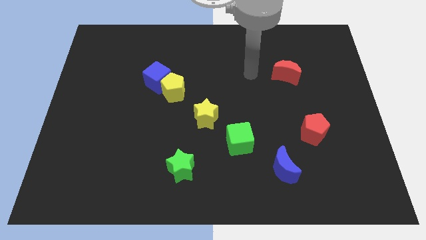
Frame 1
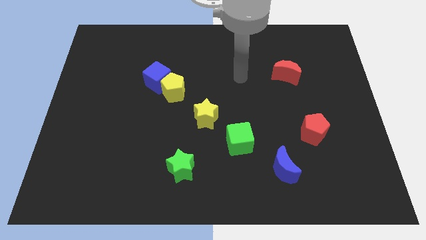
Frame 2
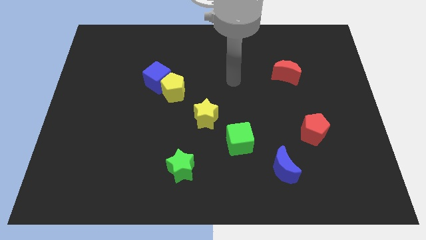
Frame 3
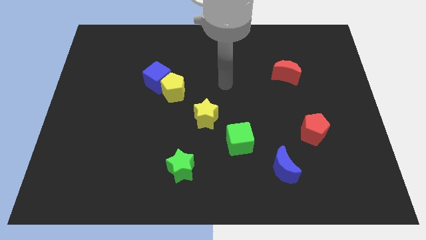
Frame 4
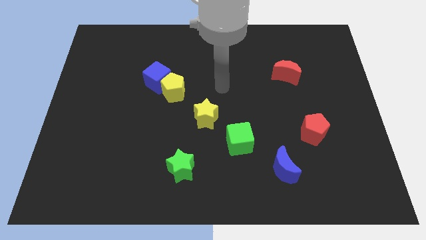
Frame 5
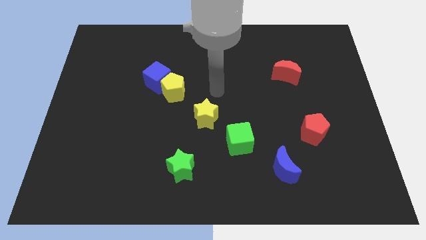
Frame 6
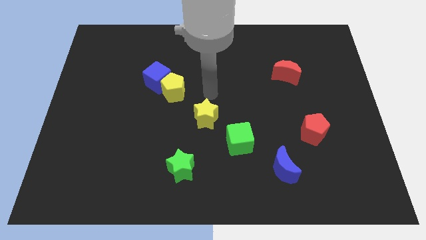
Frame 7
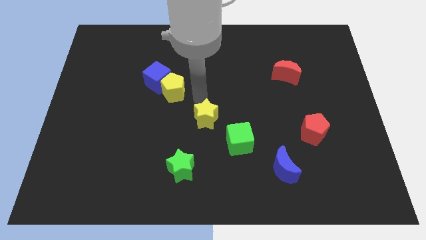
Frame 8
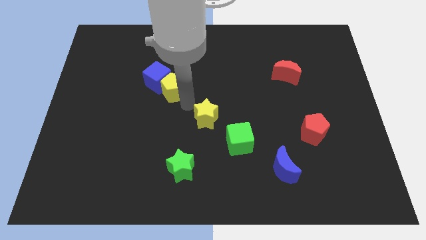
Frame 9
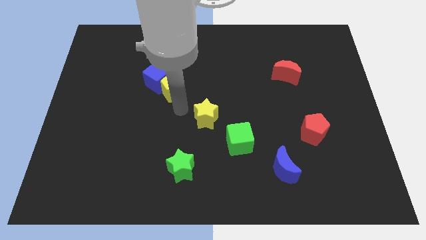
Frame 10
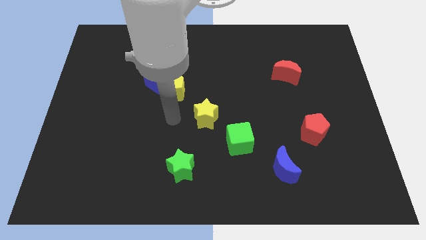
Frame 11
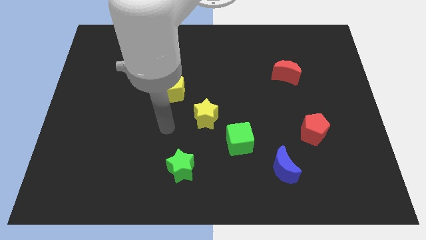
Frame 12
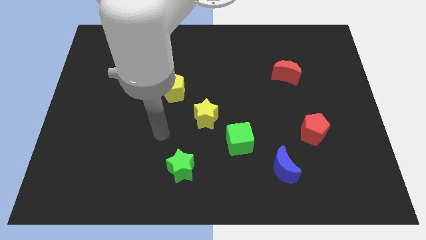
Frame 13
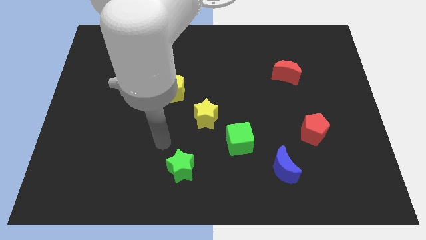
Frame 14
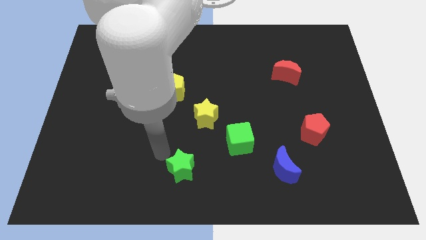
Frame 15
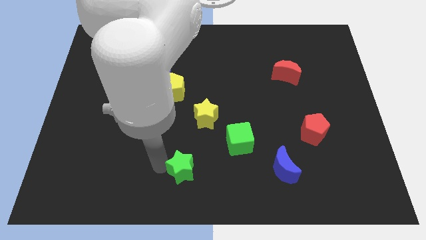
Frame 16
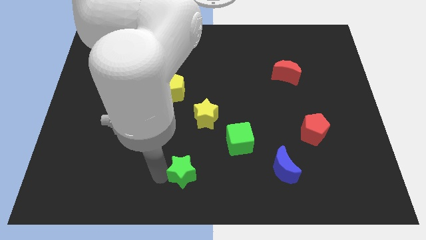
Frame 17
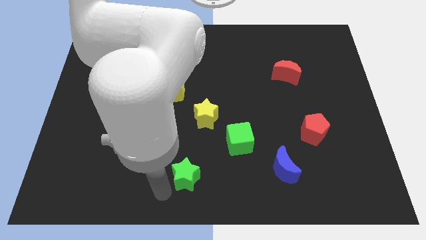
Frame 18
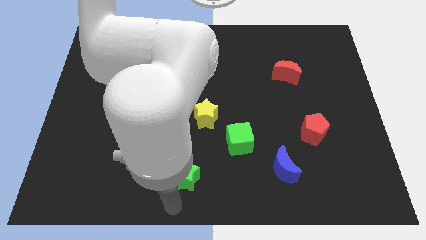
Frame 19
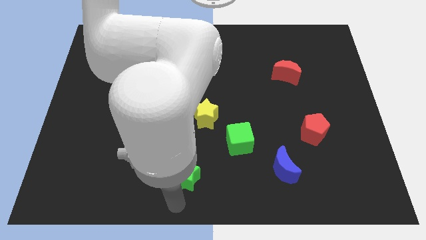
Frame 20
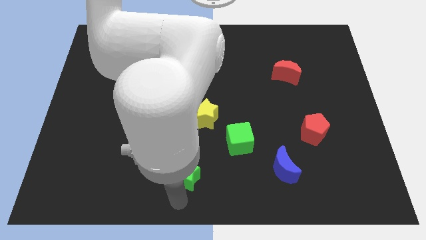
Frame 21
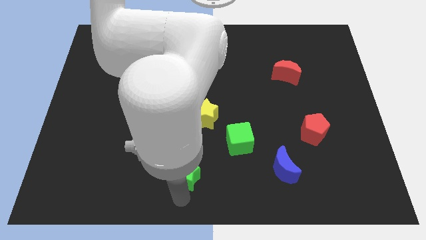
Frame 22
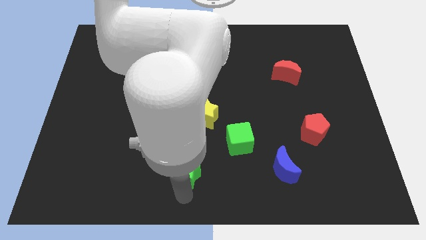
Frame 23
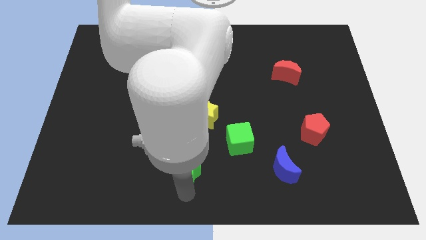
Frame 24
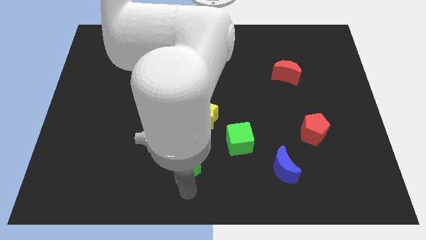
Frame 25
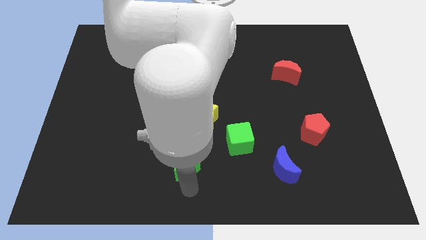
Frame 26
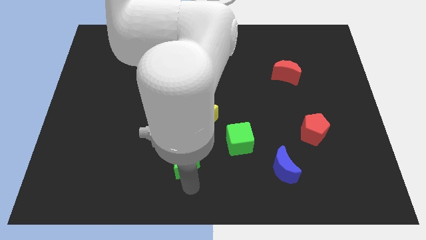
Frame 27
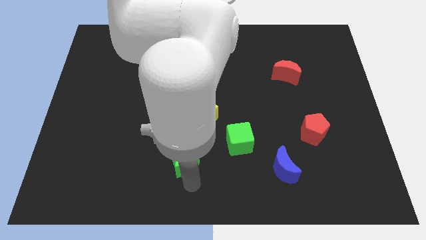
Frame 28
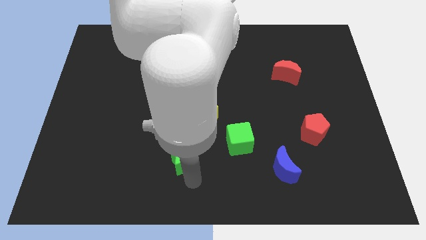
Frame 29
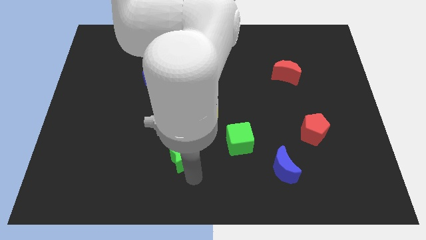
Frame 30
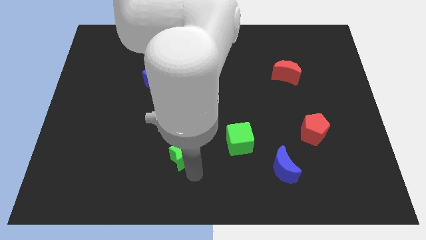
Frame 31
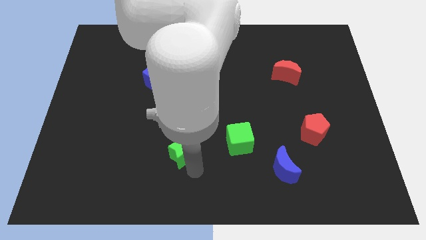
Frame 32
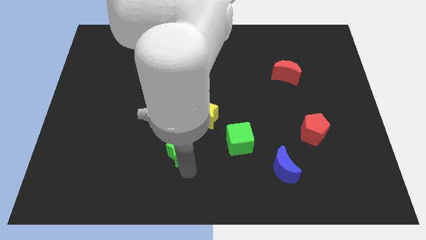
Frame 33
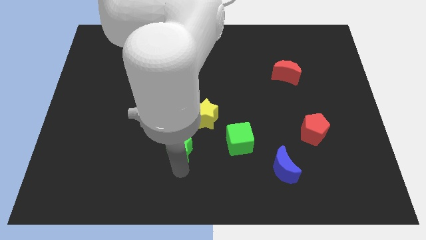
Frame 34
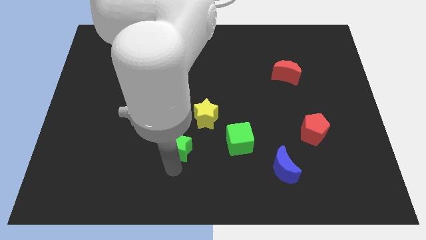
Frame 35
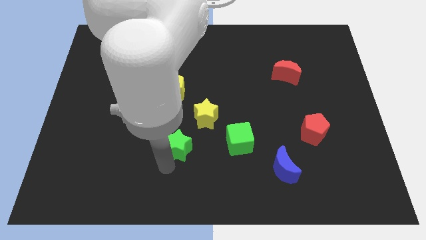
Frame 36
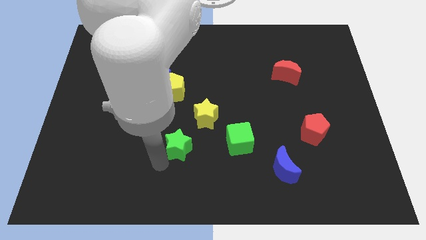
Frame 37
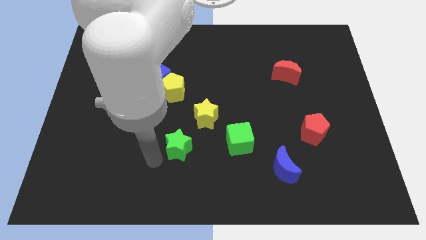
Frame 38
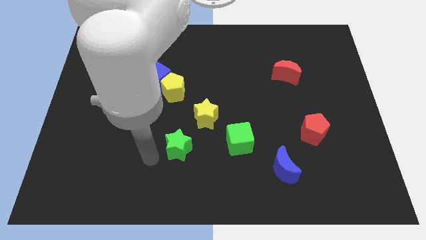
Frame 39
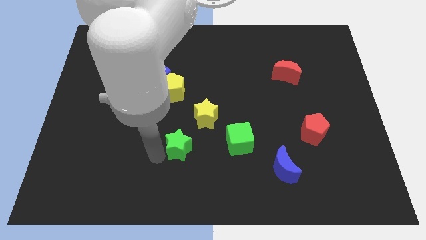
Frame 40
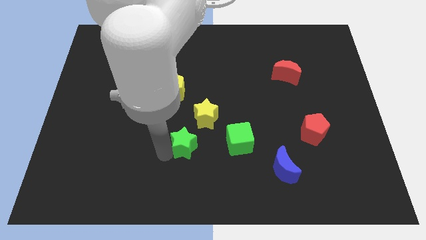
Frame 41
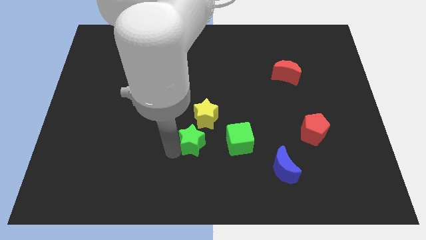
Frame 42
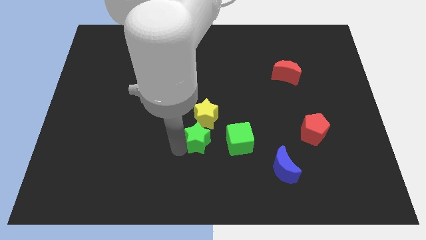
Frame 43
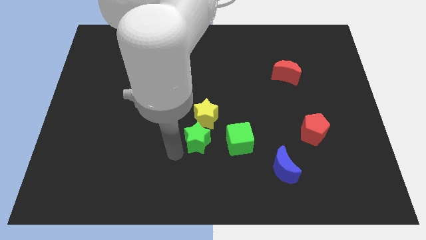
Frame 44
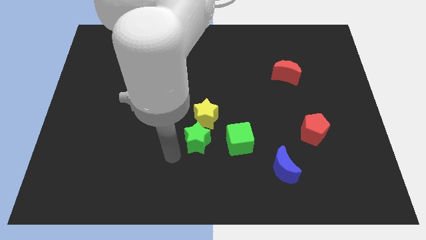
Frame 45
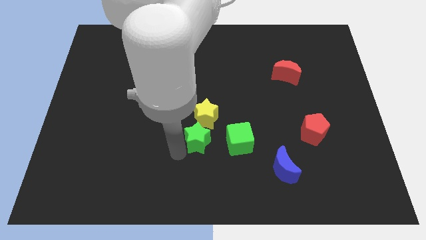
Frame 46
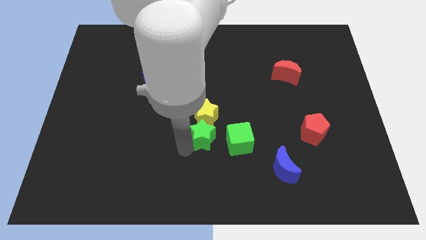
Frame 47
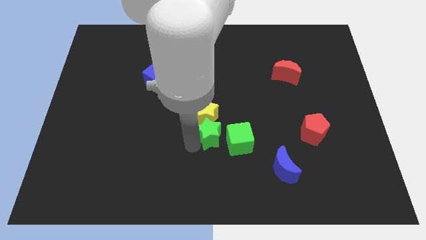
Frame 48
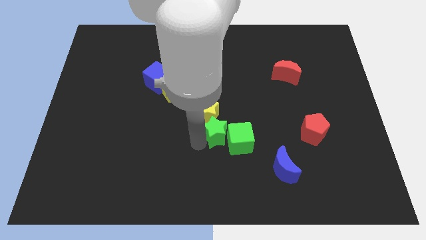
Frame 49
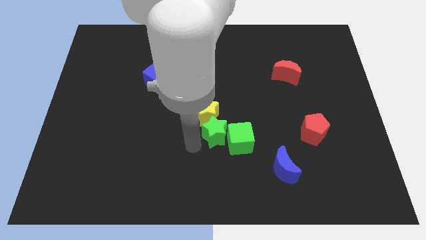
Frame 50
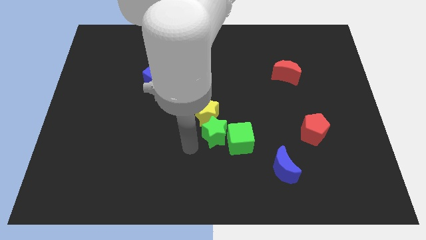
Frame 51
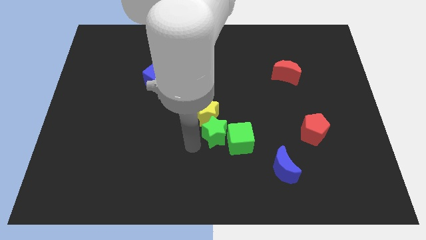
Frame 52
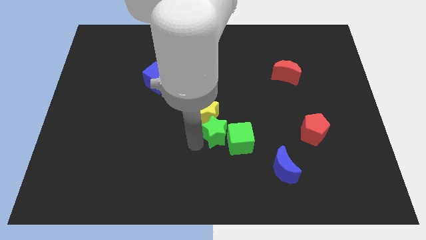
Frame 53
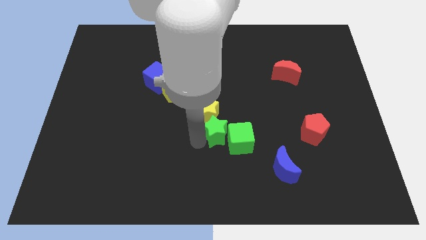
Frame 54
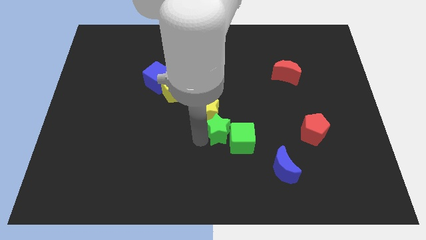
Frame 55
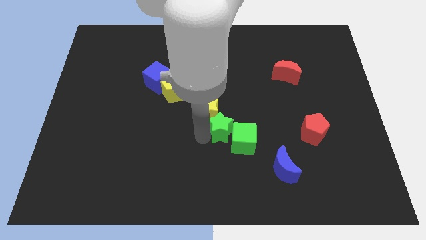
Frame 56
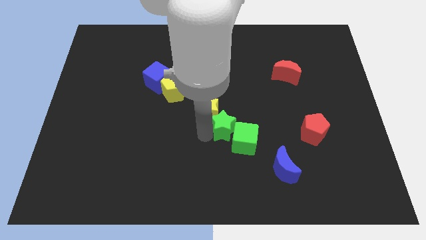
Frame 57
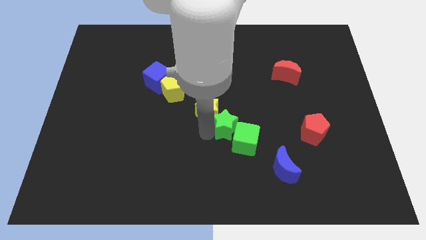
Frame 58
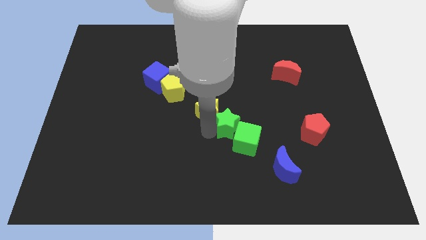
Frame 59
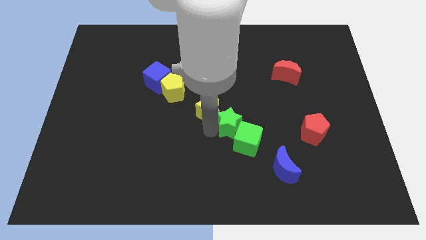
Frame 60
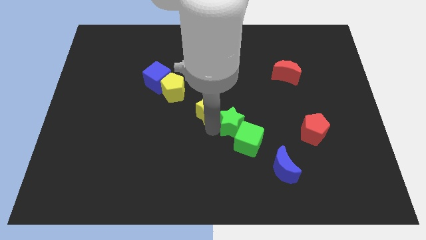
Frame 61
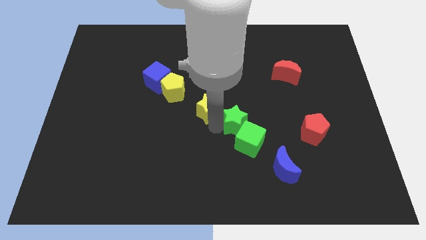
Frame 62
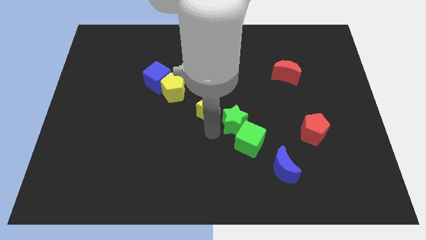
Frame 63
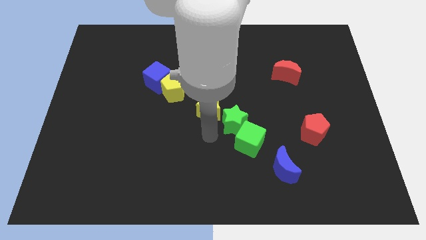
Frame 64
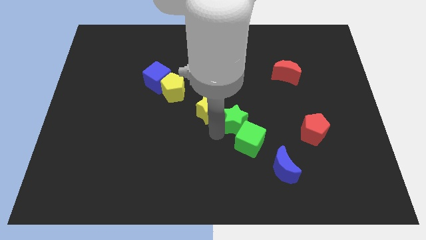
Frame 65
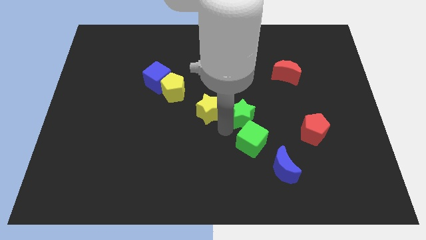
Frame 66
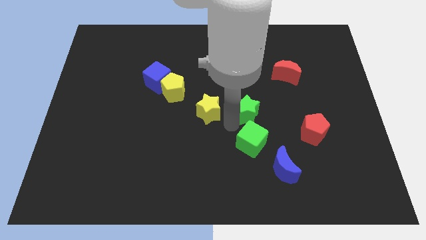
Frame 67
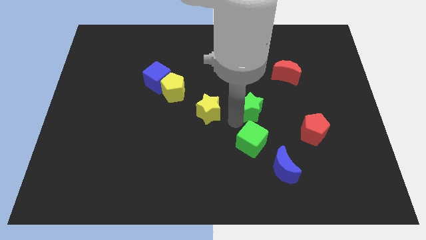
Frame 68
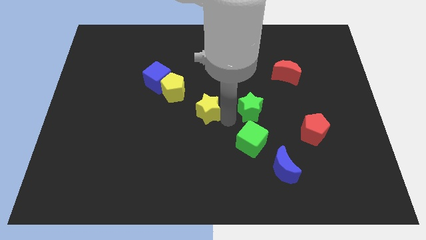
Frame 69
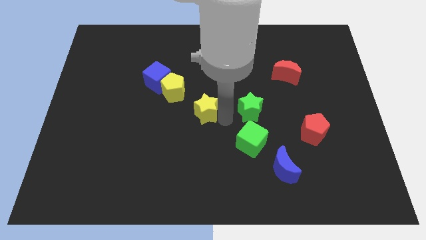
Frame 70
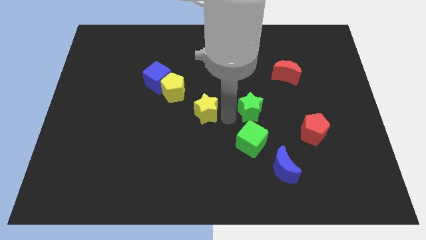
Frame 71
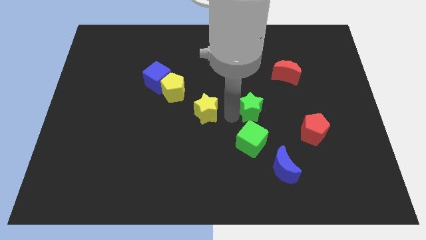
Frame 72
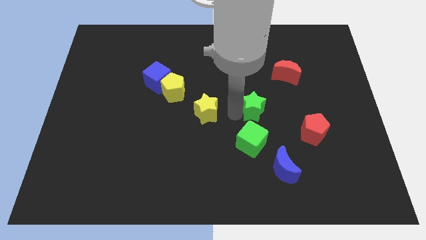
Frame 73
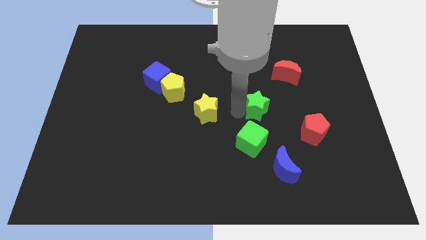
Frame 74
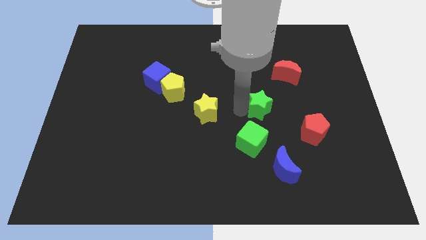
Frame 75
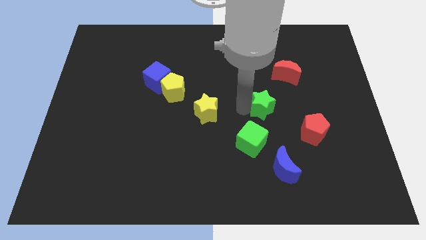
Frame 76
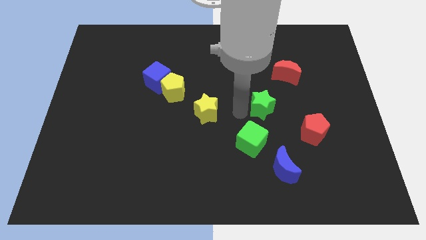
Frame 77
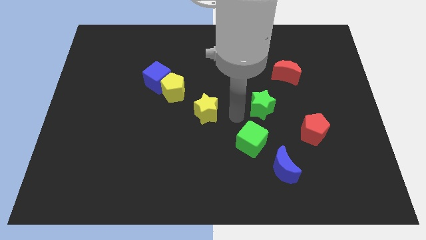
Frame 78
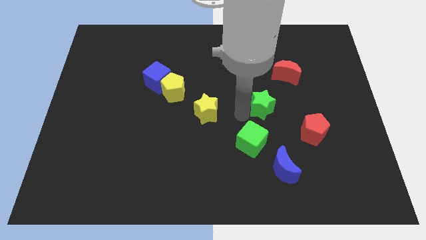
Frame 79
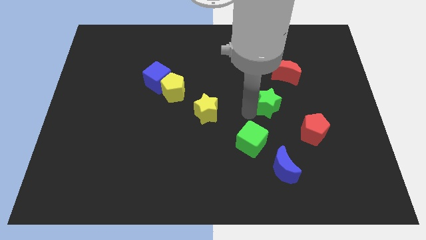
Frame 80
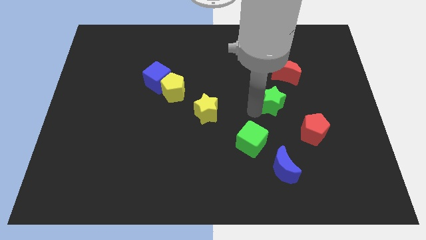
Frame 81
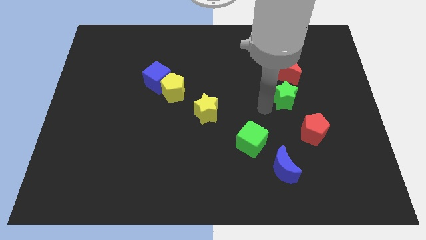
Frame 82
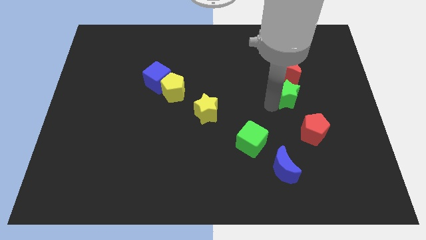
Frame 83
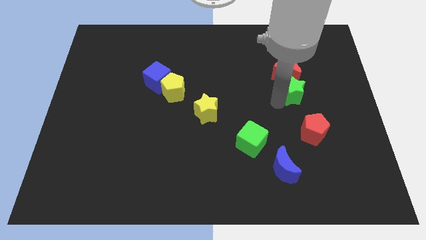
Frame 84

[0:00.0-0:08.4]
push the green star to the bottom right of the red moon
